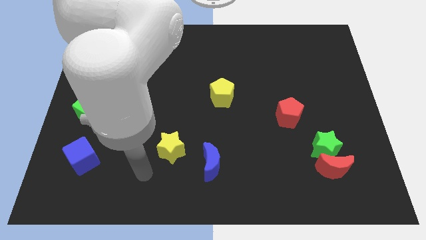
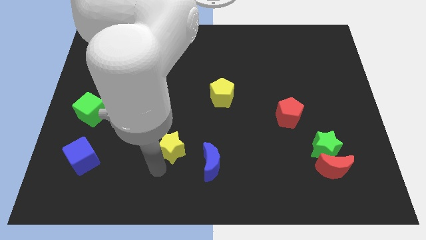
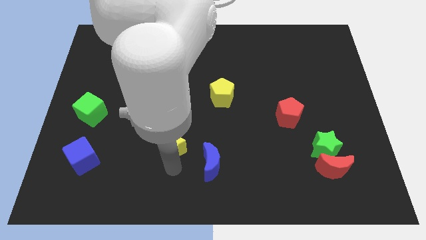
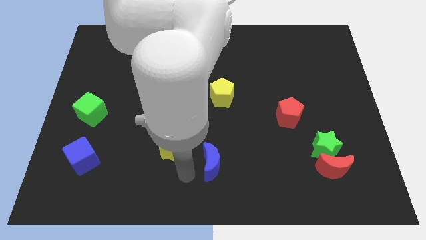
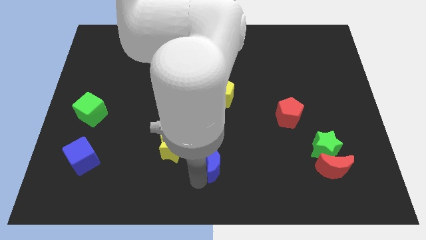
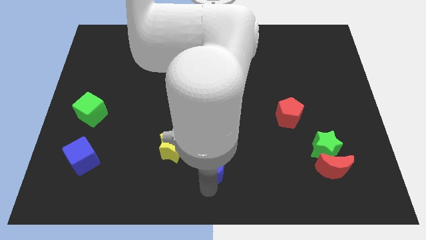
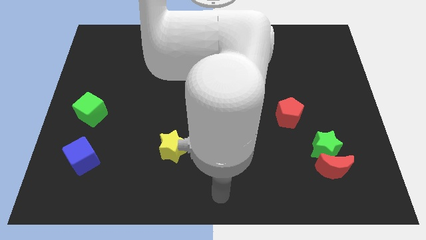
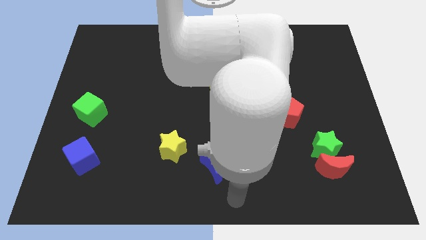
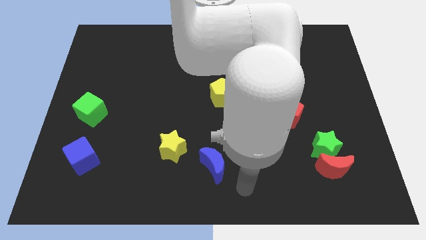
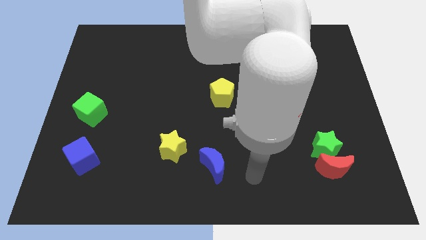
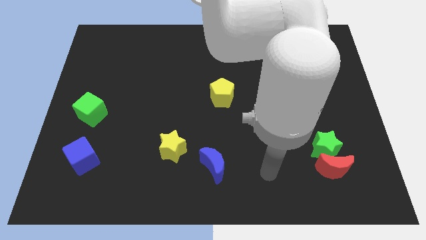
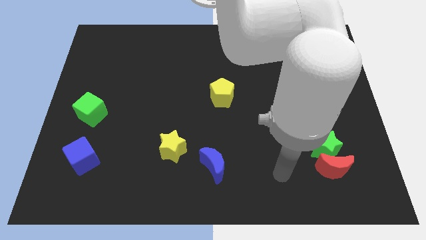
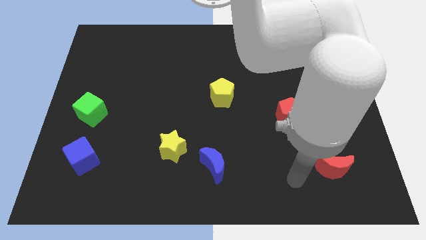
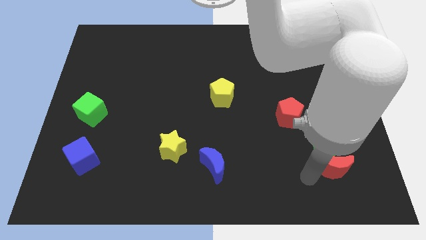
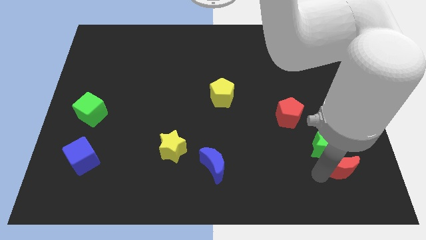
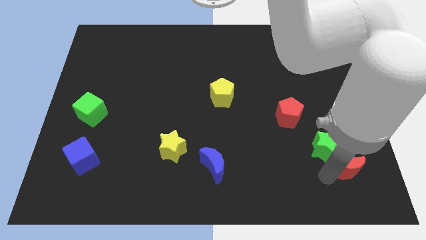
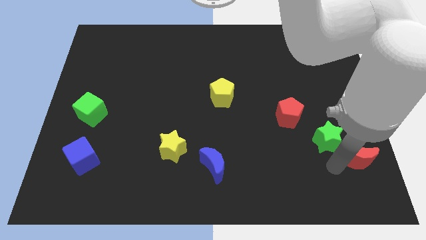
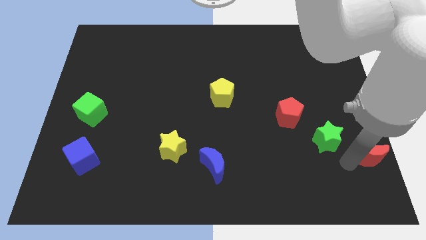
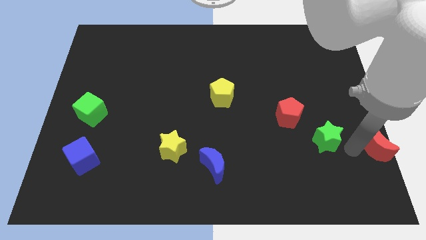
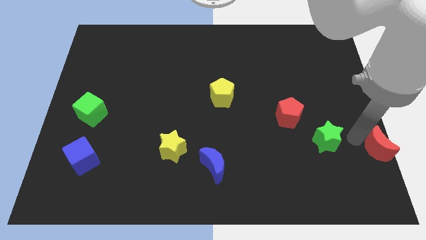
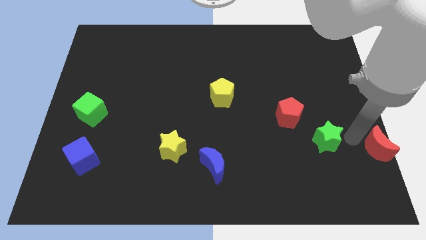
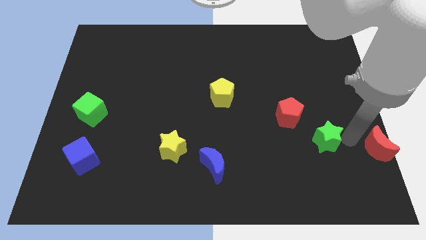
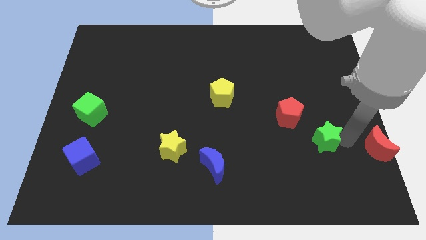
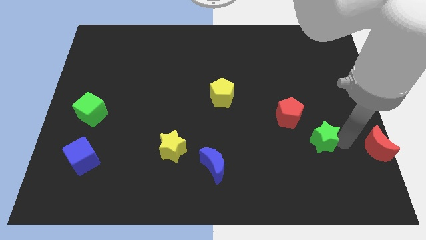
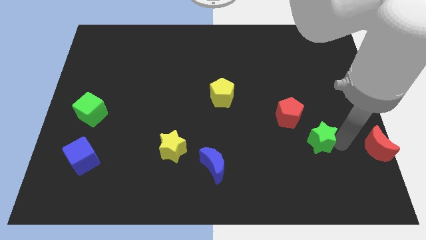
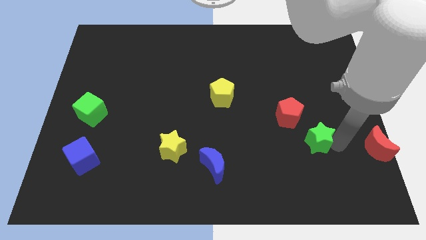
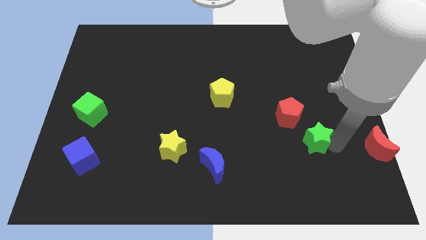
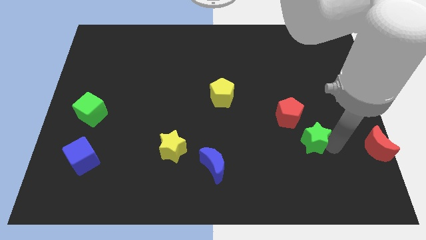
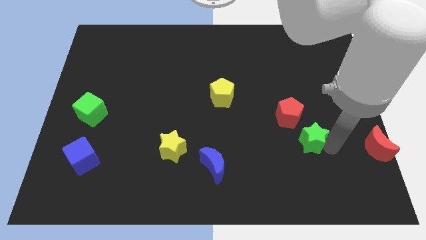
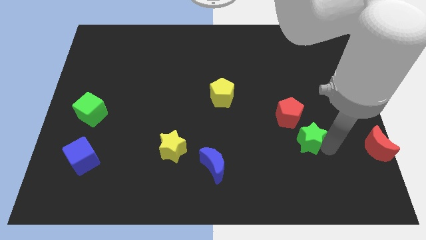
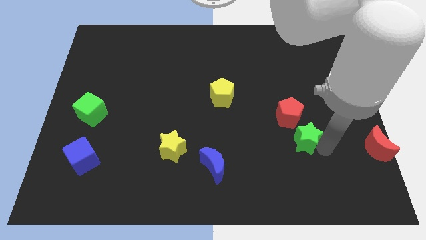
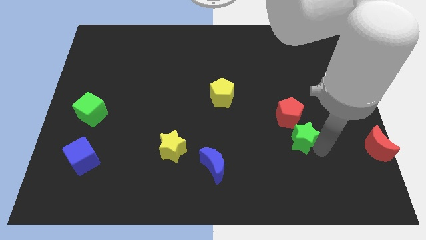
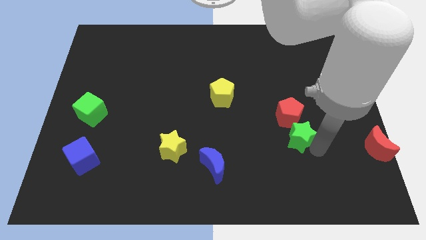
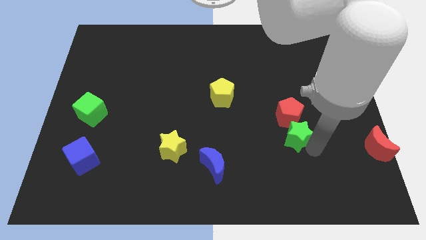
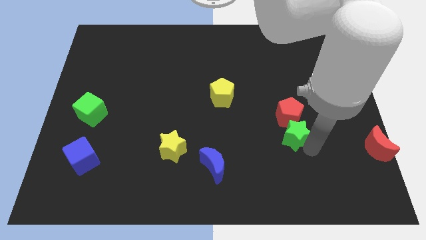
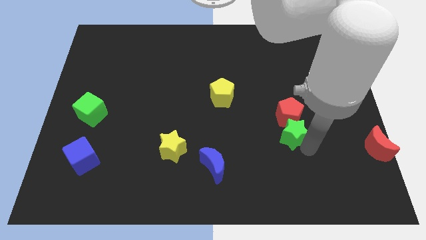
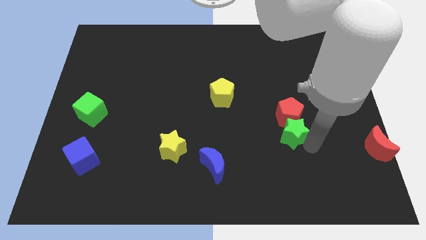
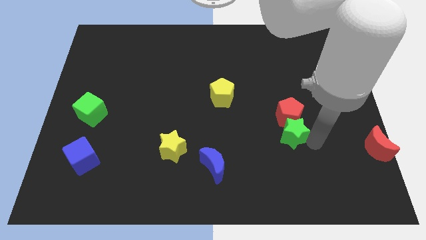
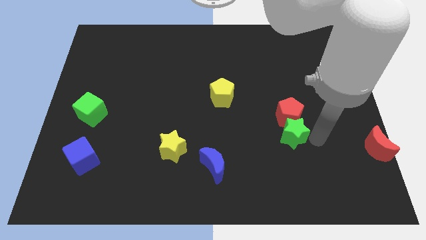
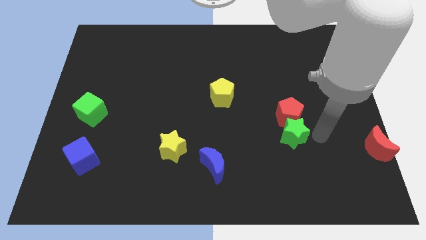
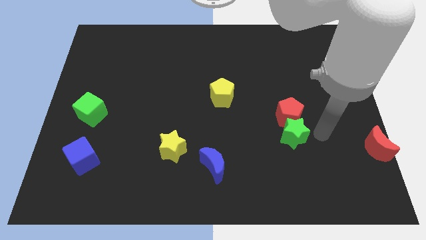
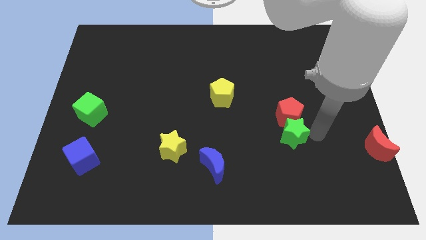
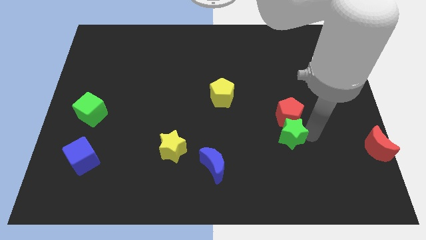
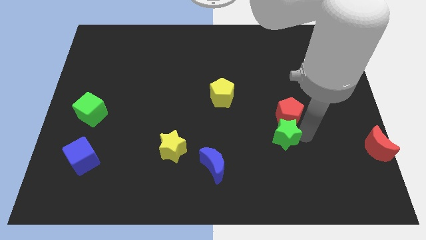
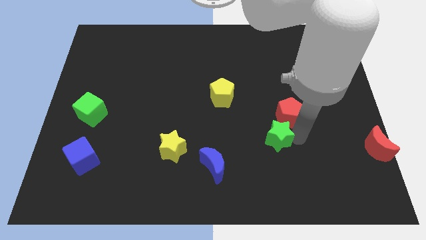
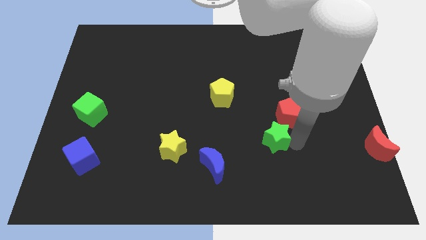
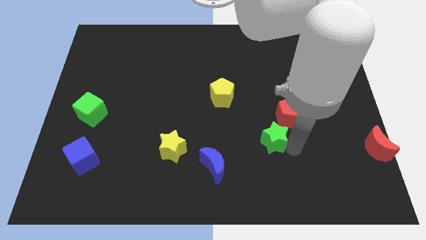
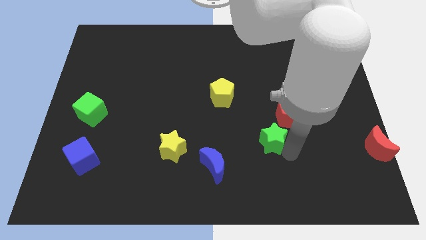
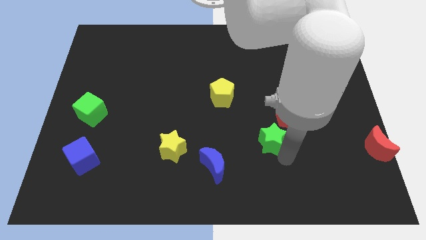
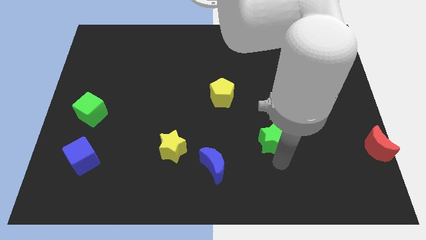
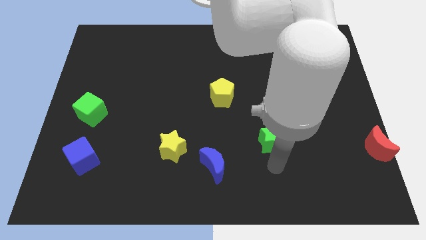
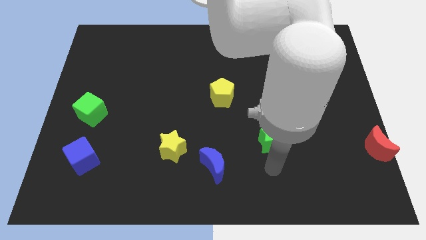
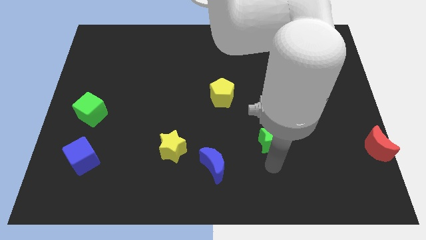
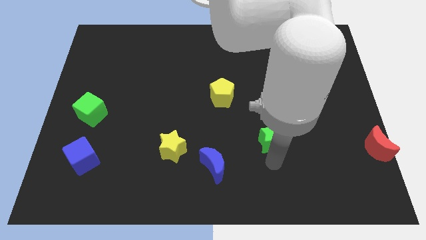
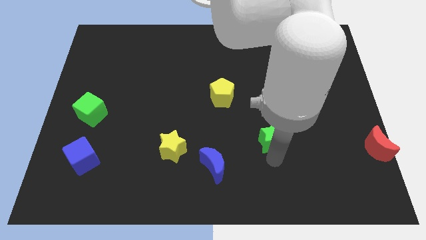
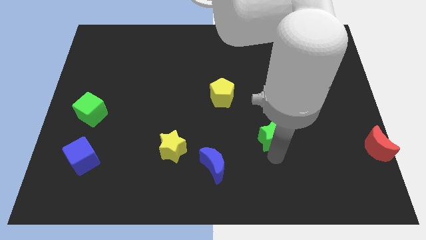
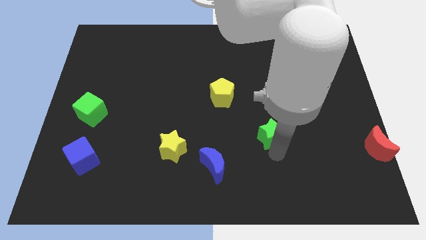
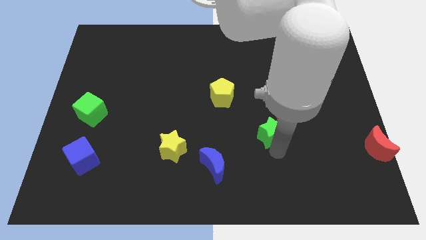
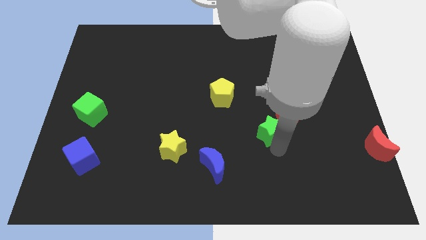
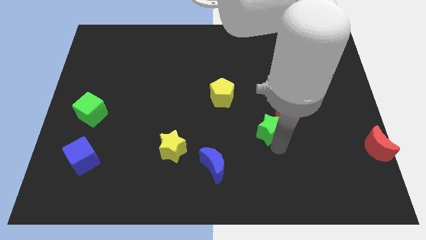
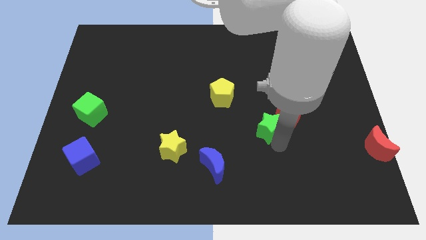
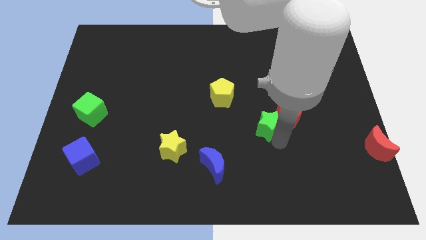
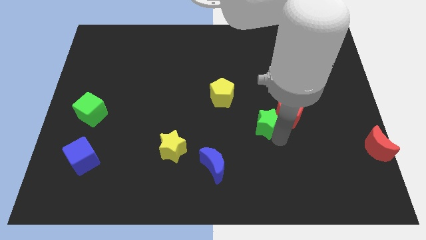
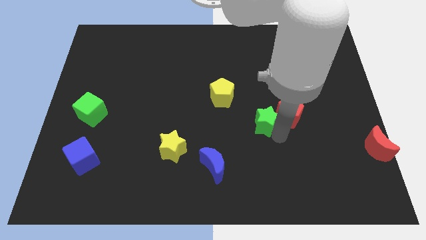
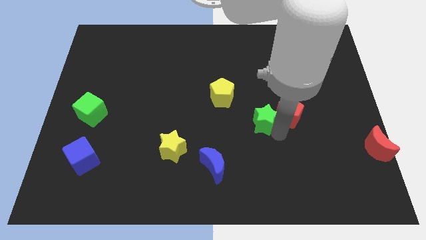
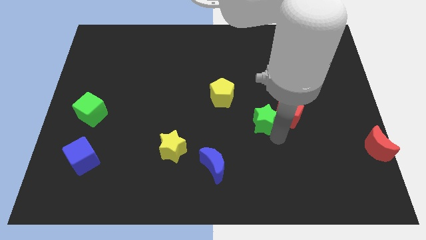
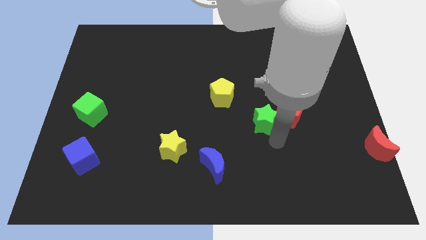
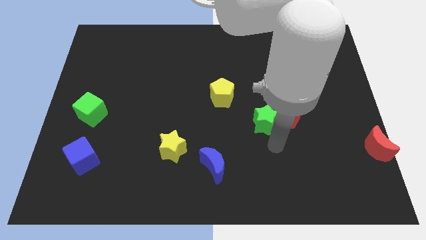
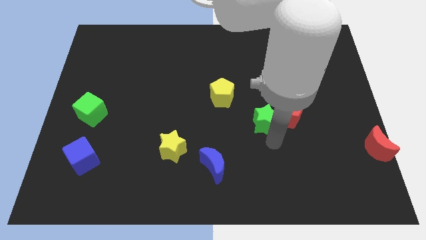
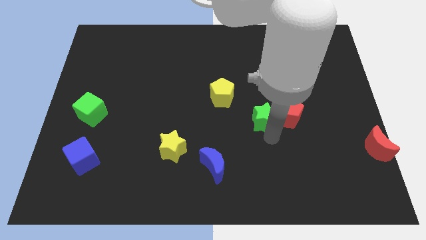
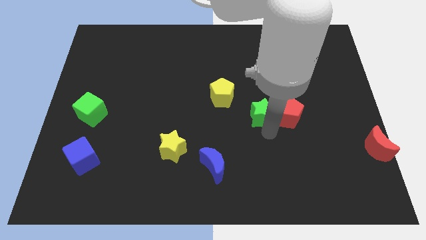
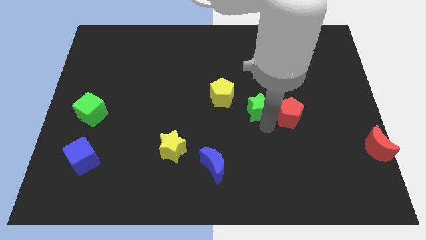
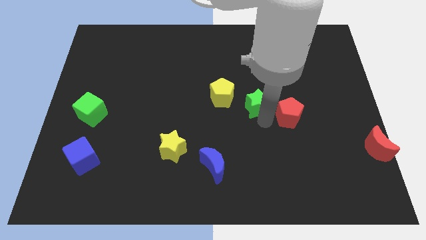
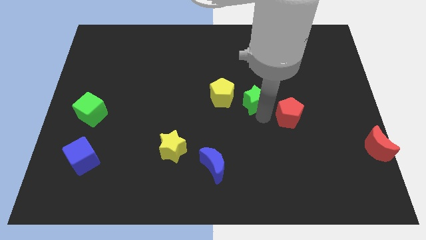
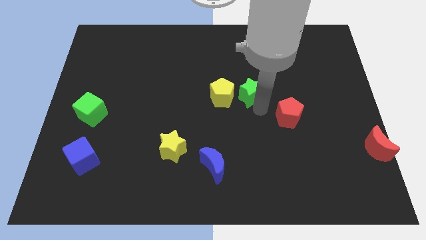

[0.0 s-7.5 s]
push the green star upwards and then to the left

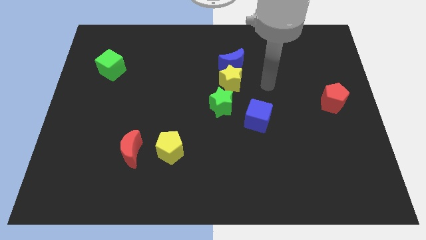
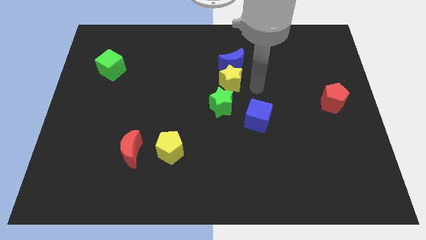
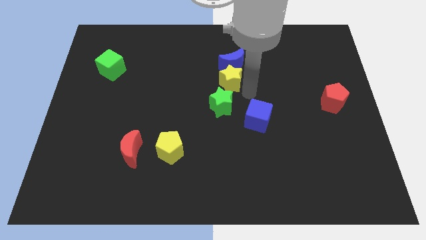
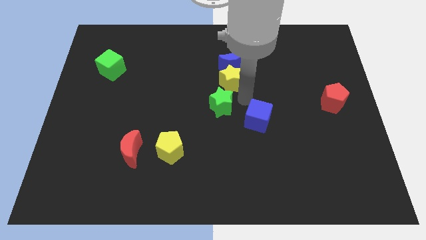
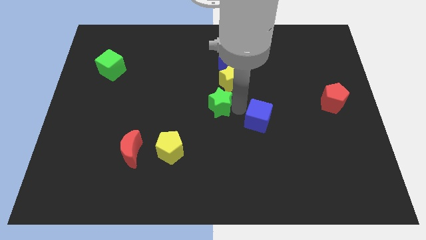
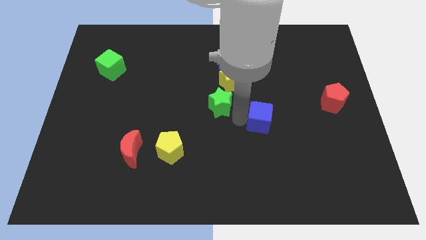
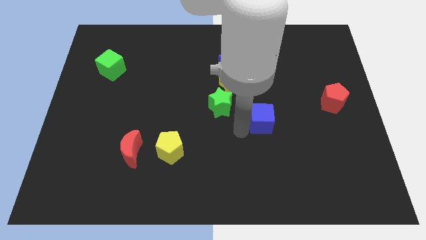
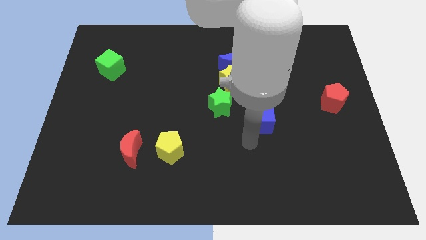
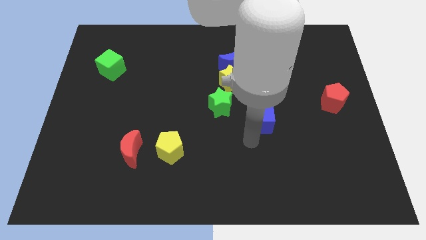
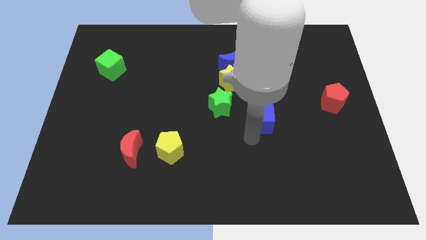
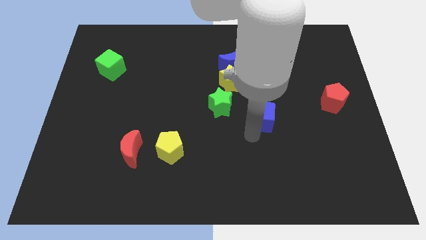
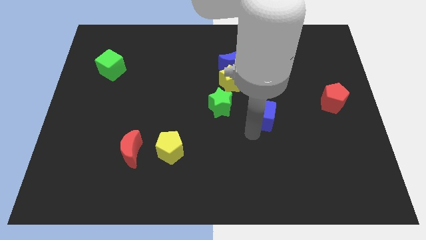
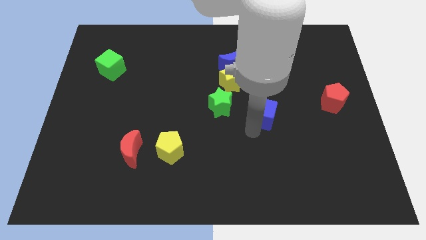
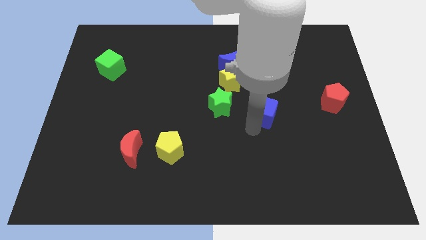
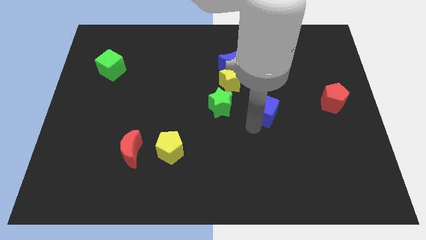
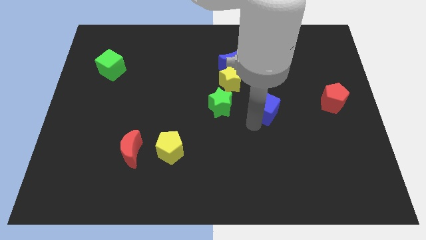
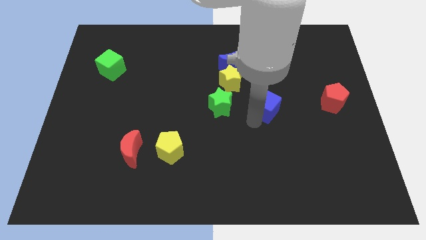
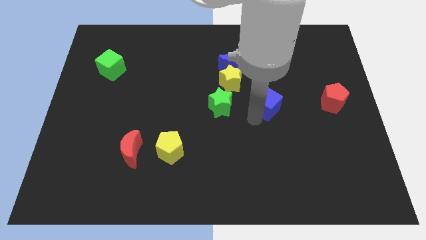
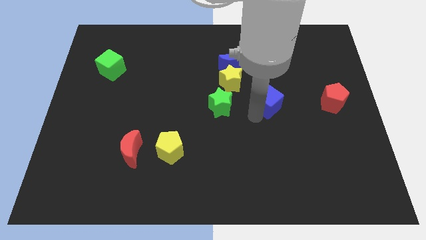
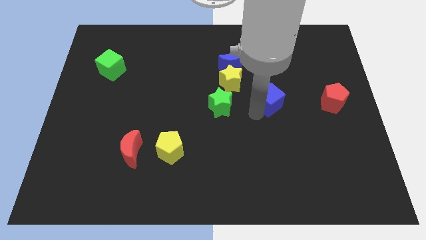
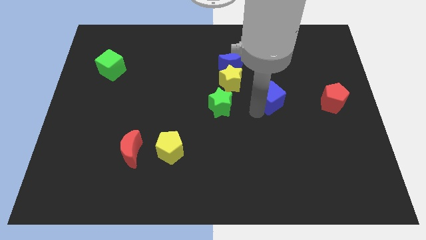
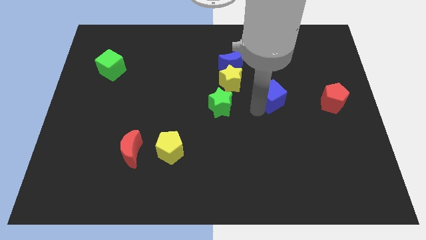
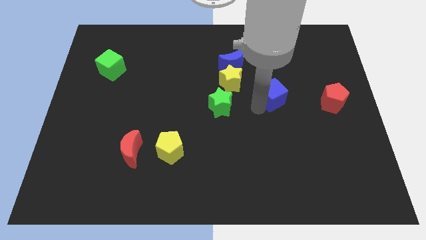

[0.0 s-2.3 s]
slide the blue cube upwards and then right somewhat
